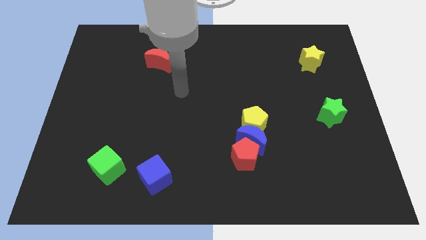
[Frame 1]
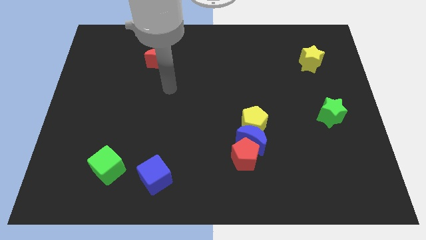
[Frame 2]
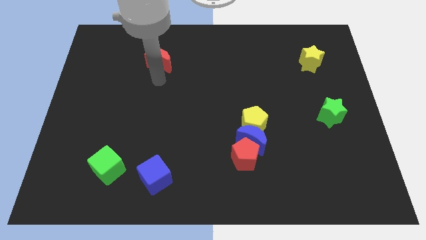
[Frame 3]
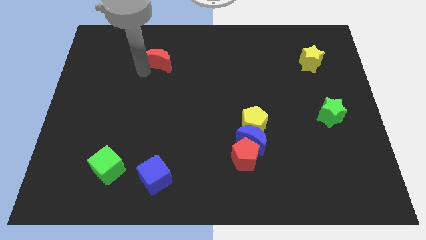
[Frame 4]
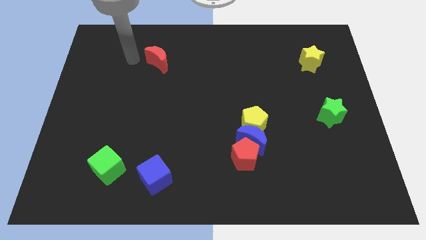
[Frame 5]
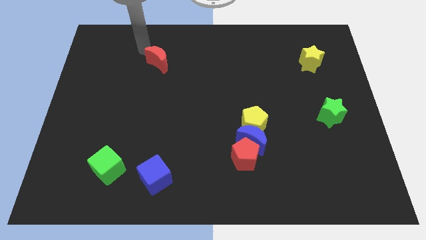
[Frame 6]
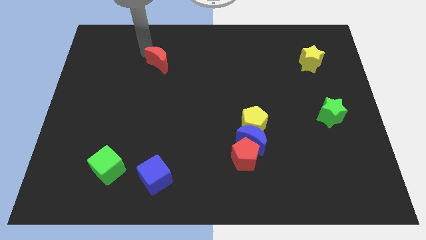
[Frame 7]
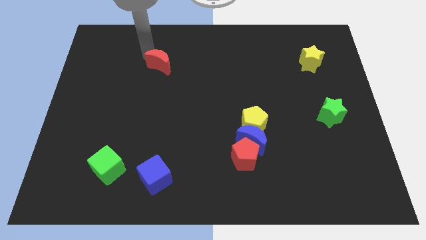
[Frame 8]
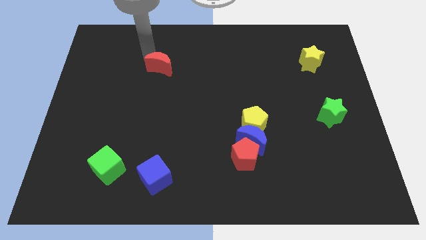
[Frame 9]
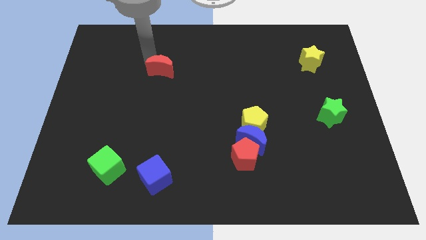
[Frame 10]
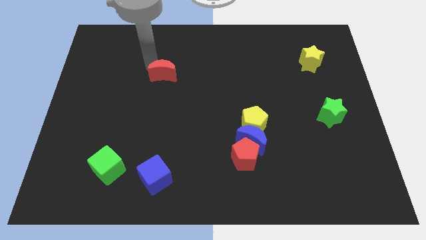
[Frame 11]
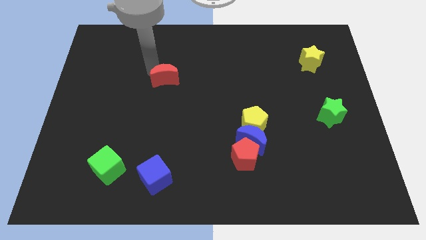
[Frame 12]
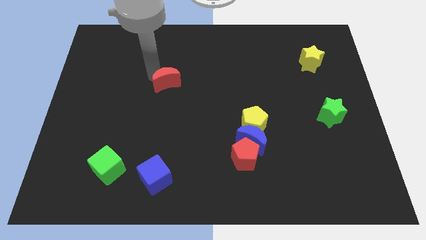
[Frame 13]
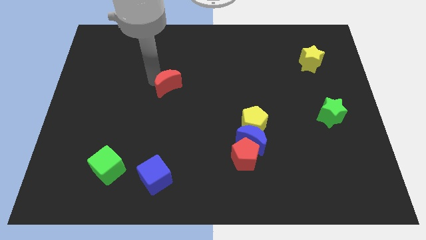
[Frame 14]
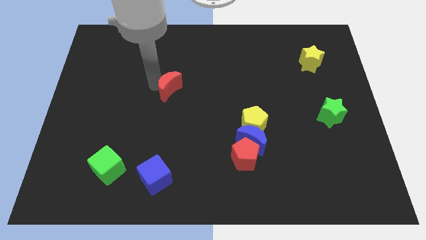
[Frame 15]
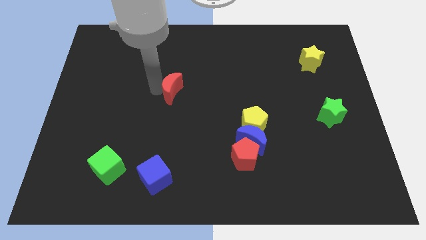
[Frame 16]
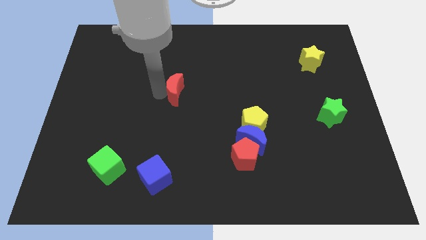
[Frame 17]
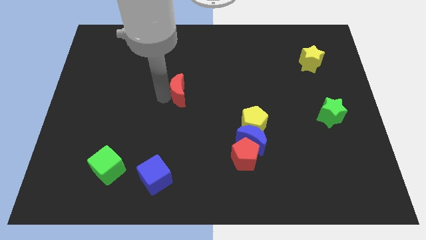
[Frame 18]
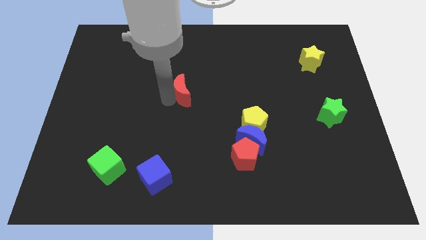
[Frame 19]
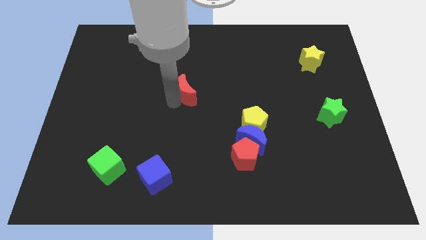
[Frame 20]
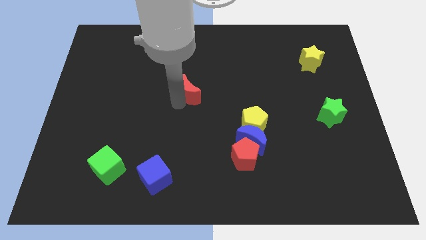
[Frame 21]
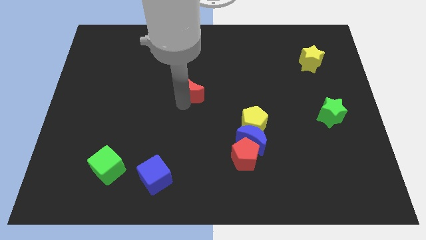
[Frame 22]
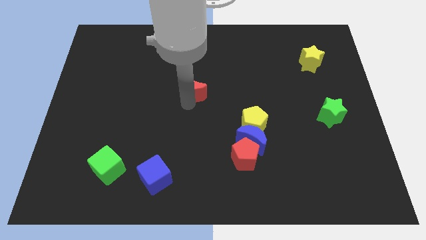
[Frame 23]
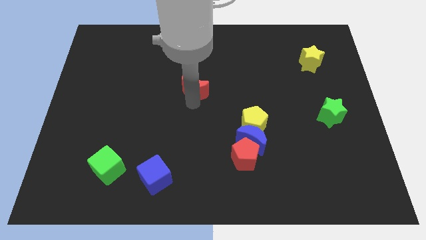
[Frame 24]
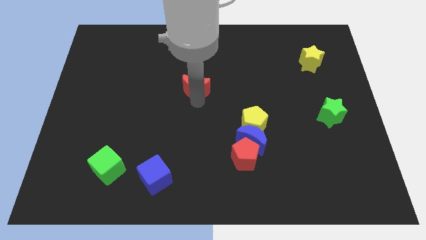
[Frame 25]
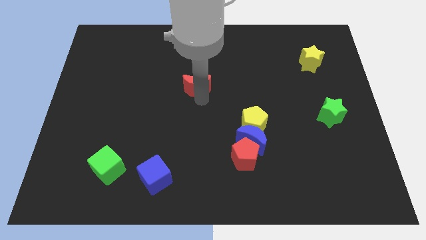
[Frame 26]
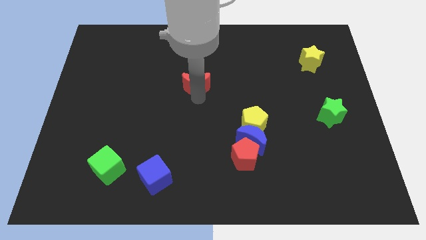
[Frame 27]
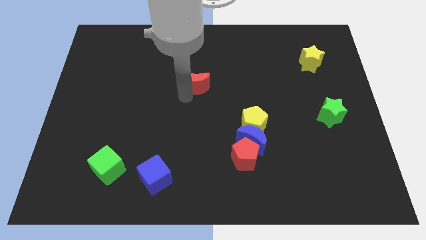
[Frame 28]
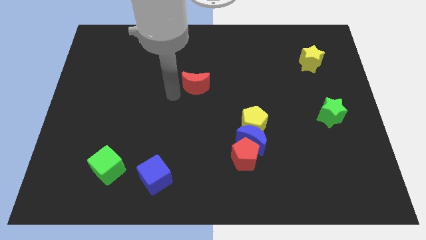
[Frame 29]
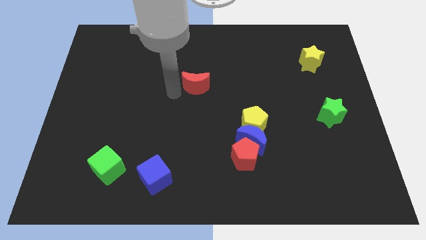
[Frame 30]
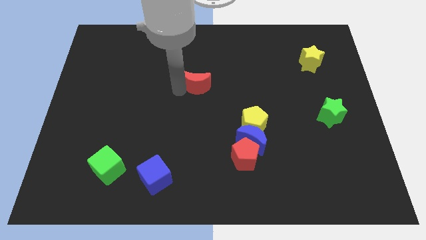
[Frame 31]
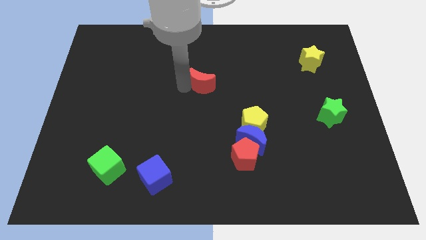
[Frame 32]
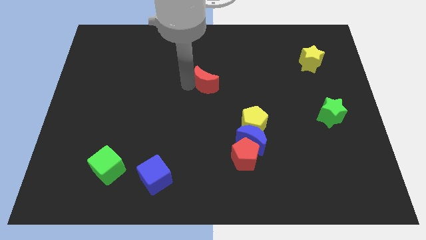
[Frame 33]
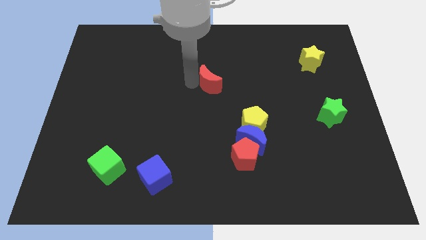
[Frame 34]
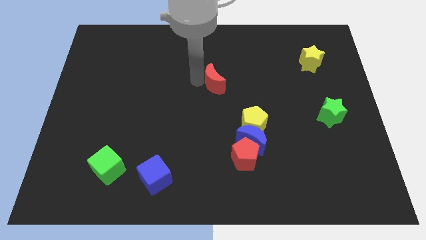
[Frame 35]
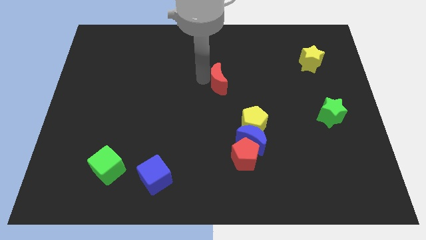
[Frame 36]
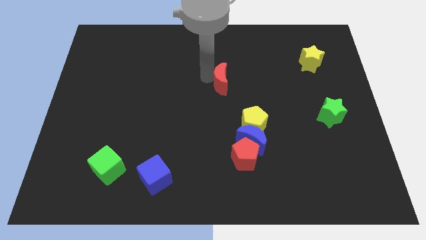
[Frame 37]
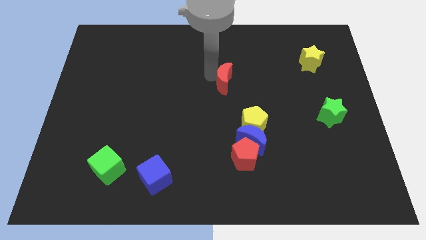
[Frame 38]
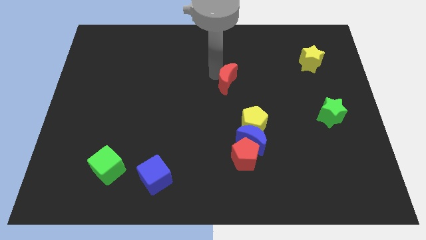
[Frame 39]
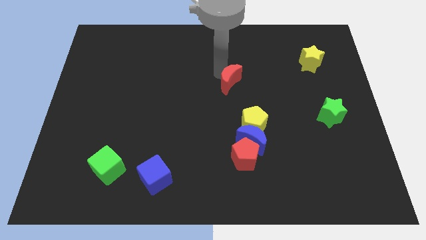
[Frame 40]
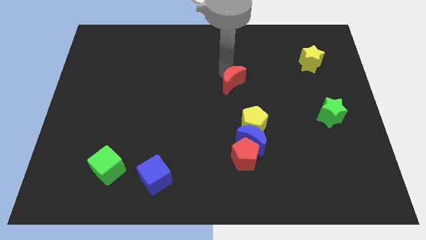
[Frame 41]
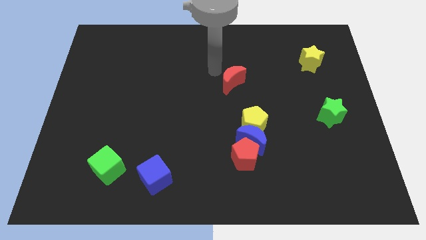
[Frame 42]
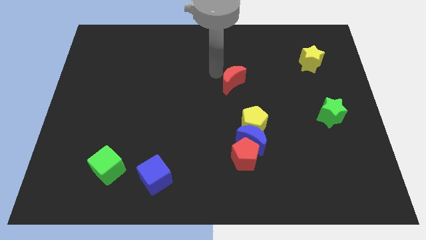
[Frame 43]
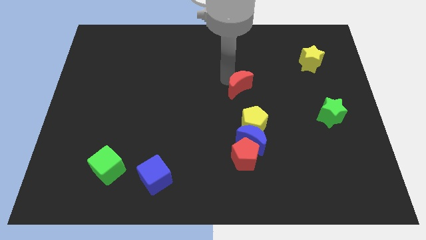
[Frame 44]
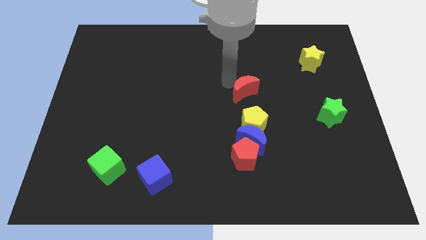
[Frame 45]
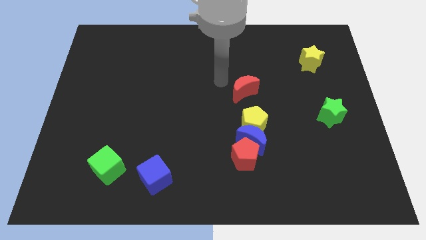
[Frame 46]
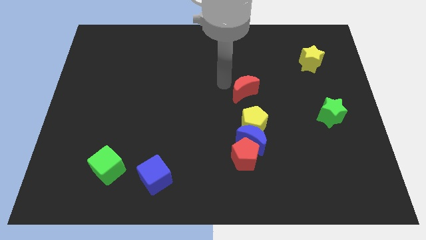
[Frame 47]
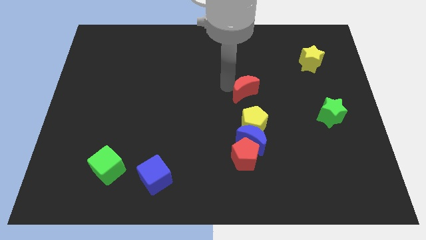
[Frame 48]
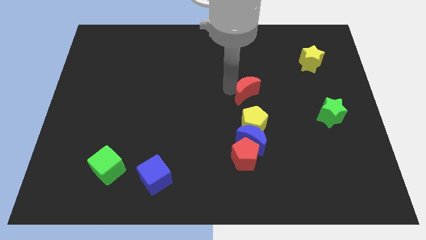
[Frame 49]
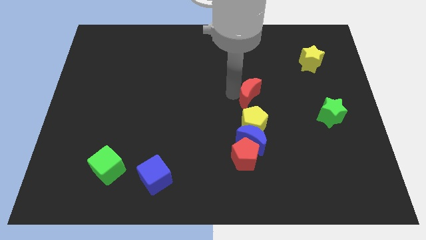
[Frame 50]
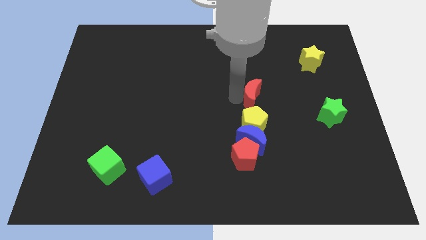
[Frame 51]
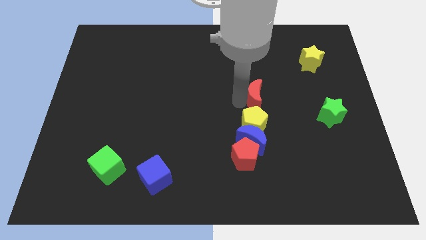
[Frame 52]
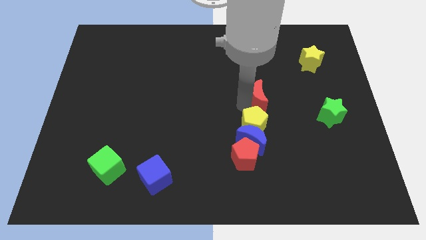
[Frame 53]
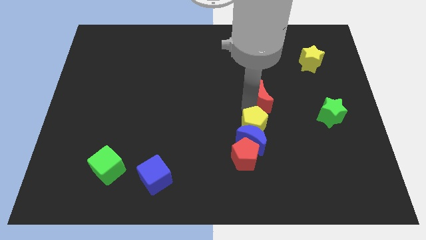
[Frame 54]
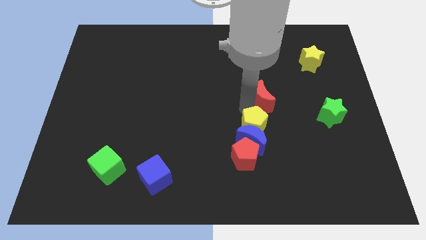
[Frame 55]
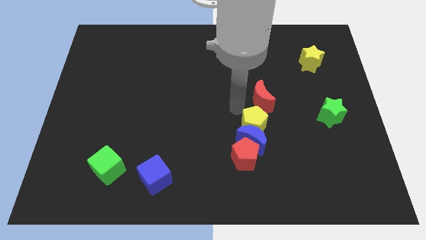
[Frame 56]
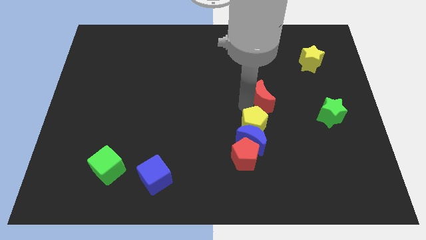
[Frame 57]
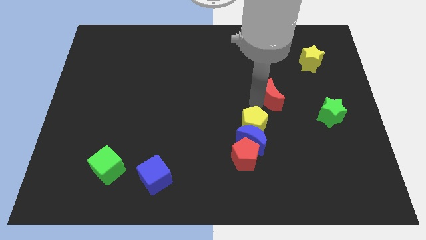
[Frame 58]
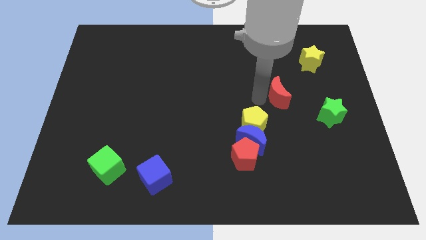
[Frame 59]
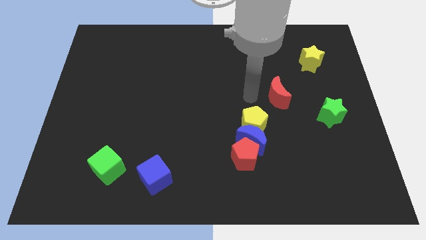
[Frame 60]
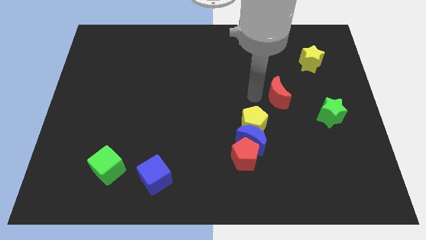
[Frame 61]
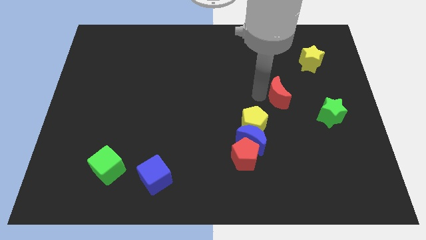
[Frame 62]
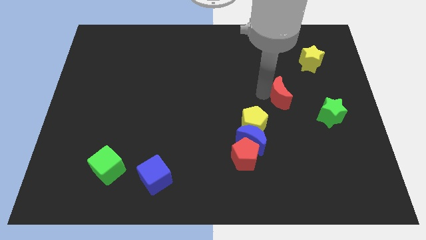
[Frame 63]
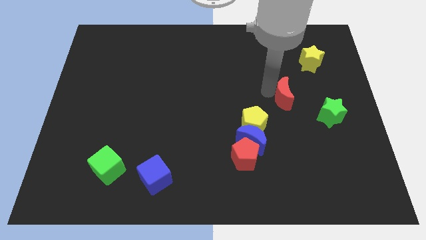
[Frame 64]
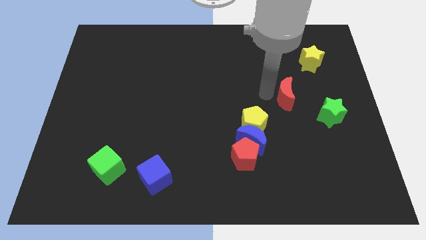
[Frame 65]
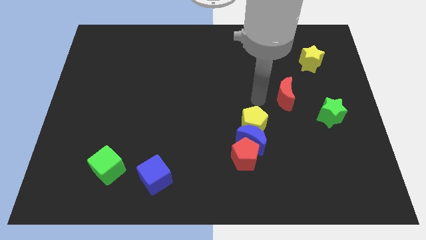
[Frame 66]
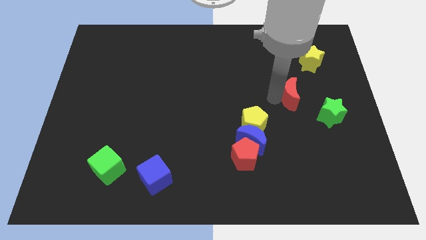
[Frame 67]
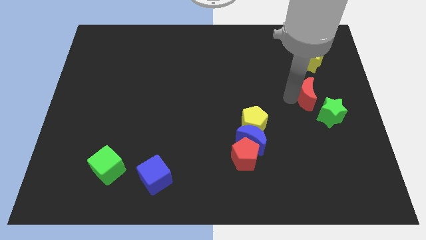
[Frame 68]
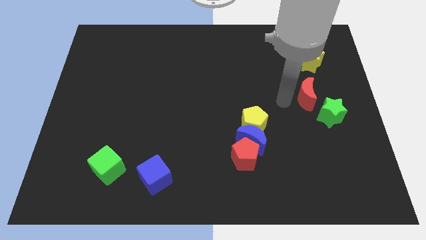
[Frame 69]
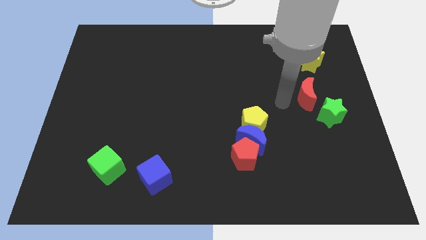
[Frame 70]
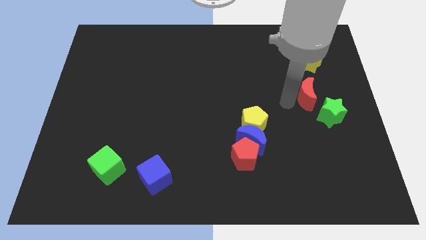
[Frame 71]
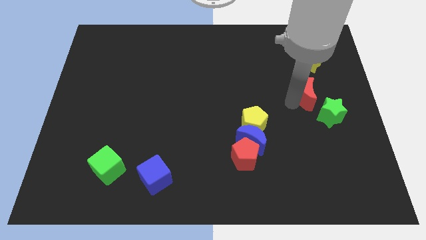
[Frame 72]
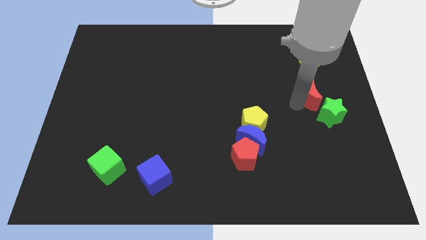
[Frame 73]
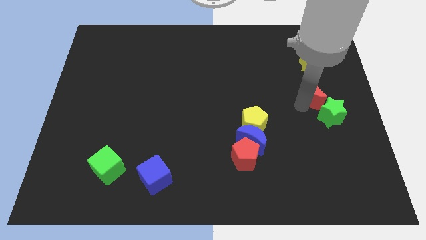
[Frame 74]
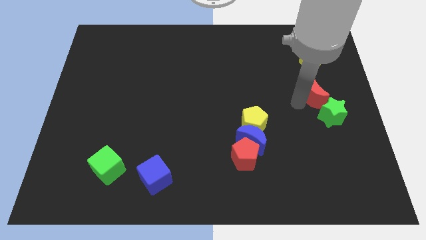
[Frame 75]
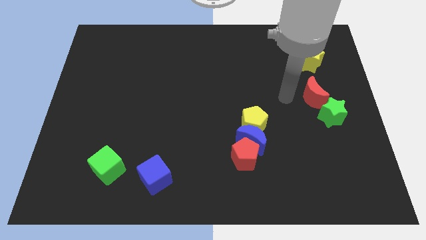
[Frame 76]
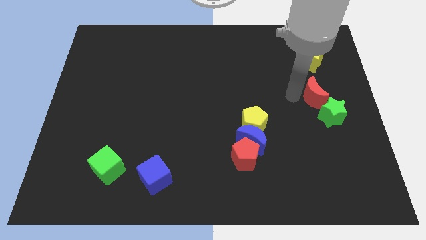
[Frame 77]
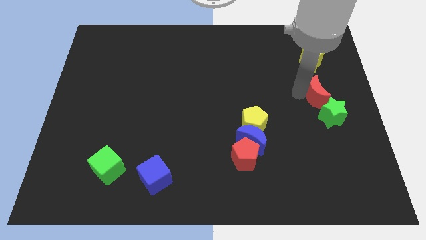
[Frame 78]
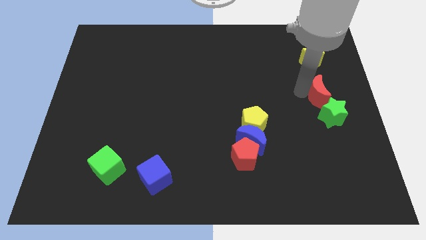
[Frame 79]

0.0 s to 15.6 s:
slide the red moon to the center right
